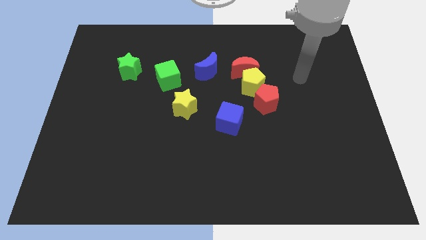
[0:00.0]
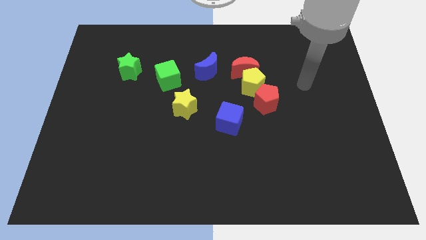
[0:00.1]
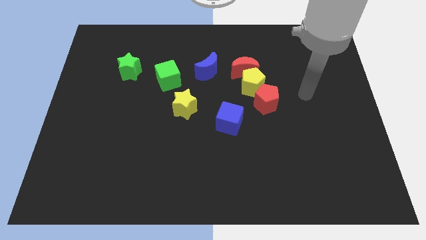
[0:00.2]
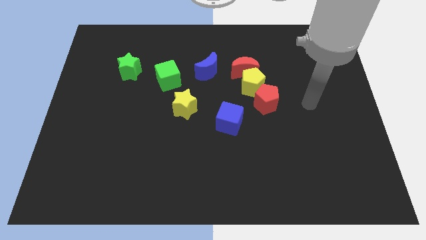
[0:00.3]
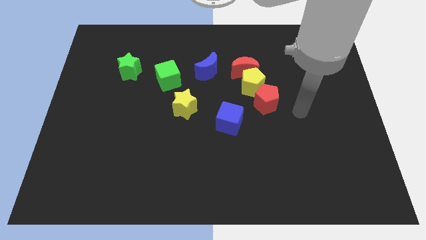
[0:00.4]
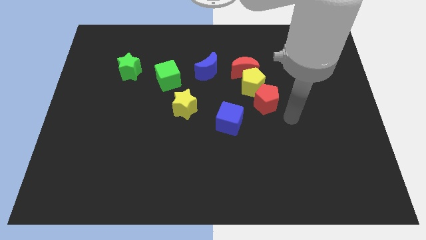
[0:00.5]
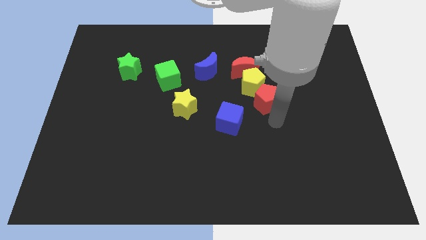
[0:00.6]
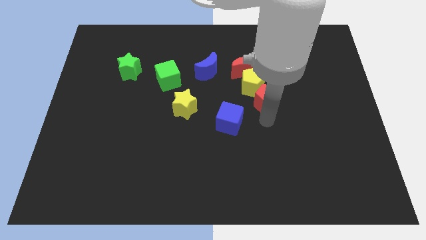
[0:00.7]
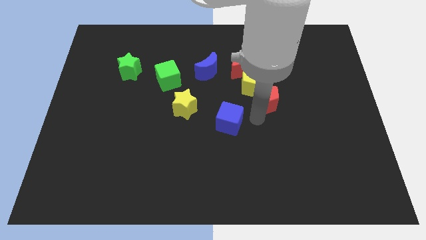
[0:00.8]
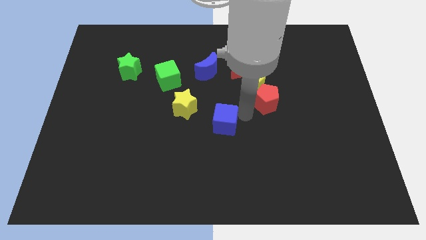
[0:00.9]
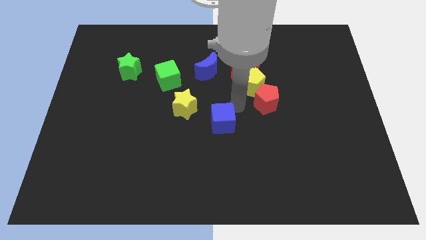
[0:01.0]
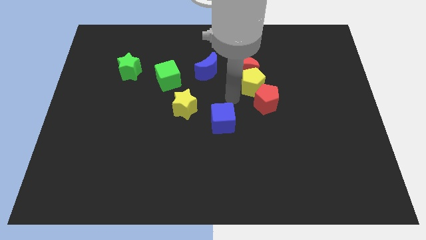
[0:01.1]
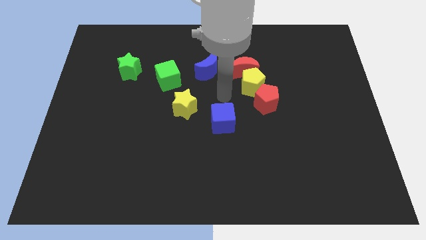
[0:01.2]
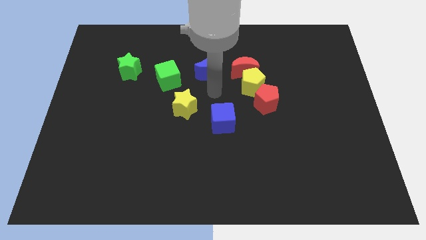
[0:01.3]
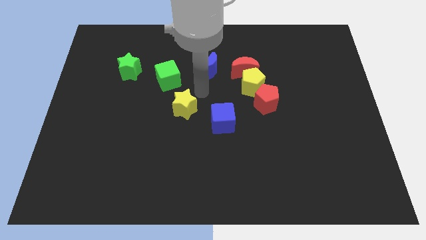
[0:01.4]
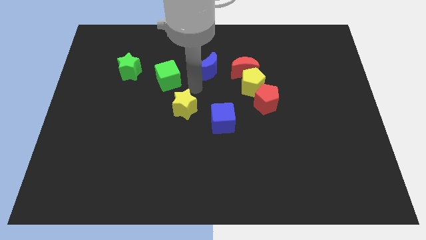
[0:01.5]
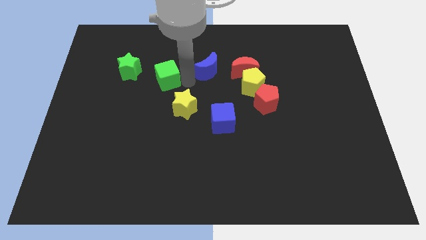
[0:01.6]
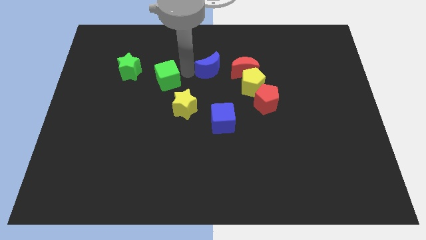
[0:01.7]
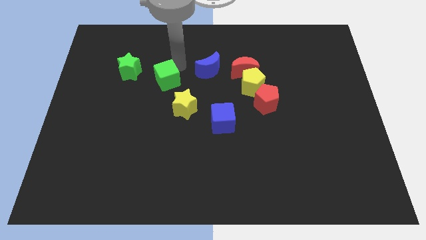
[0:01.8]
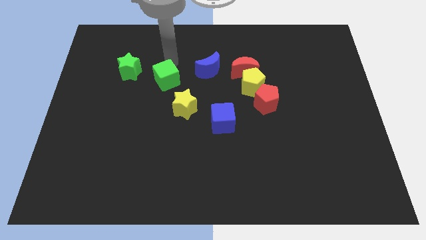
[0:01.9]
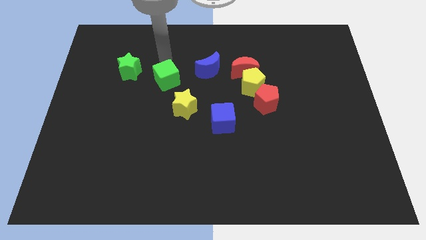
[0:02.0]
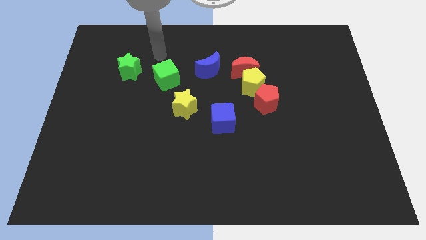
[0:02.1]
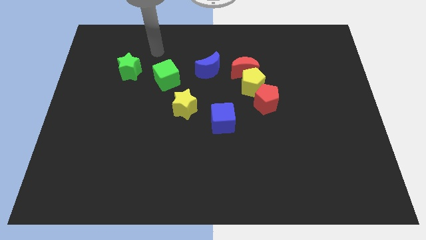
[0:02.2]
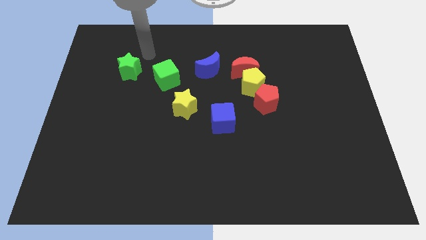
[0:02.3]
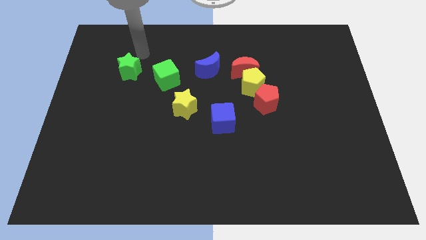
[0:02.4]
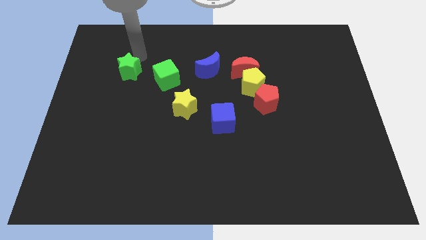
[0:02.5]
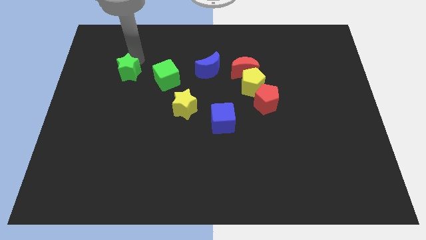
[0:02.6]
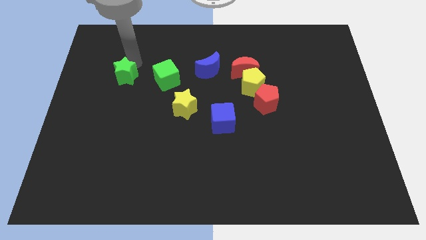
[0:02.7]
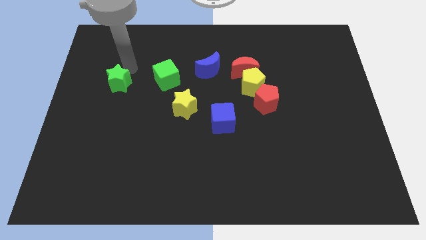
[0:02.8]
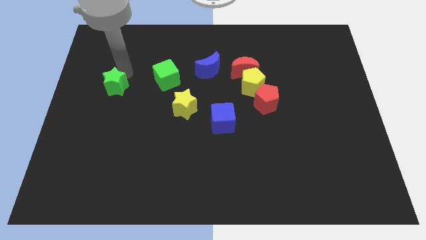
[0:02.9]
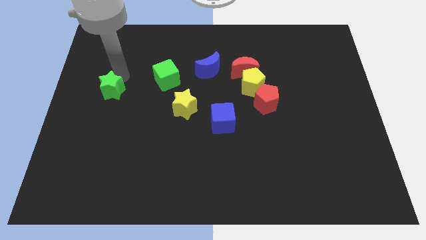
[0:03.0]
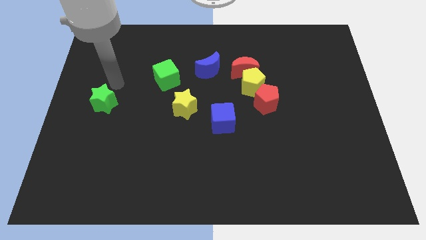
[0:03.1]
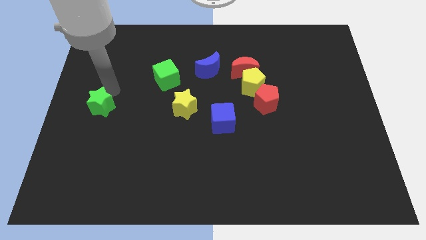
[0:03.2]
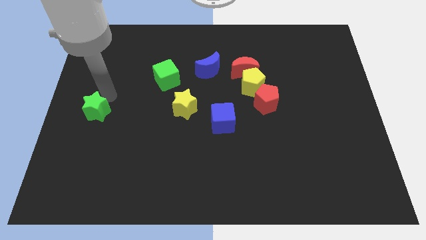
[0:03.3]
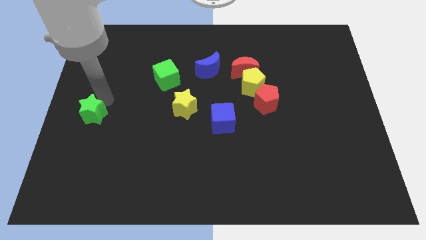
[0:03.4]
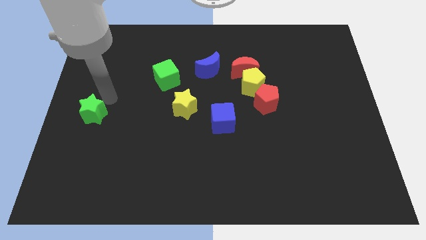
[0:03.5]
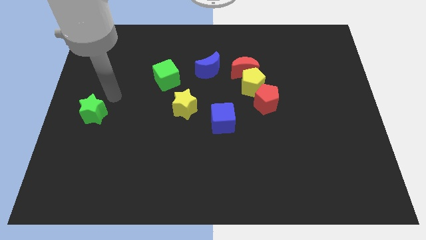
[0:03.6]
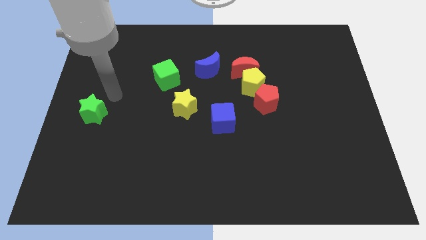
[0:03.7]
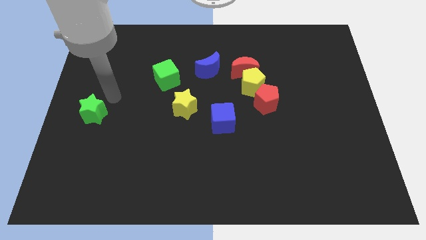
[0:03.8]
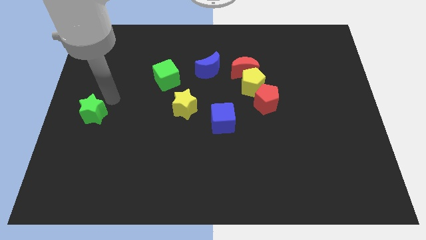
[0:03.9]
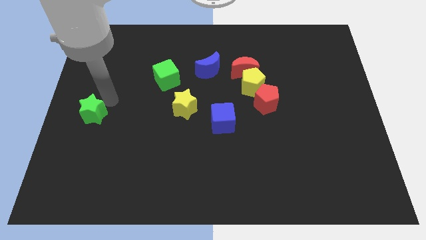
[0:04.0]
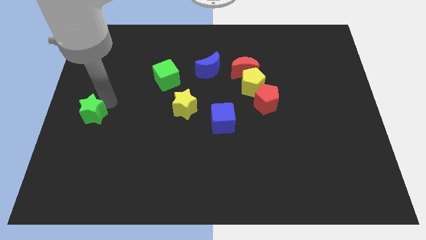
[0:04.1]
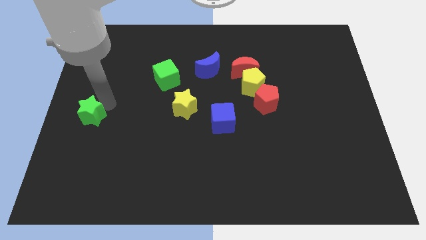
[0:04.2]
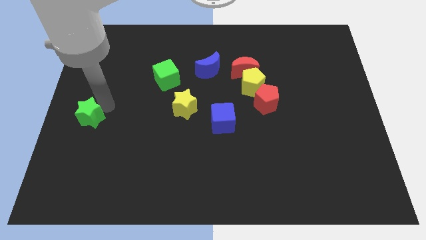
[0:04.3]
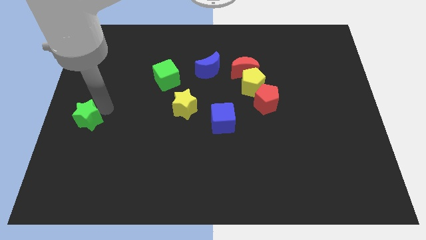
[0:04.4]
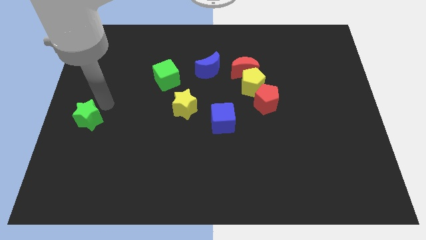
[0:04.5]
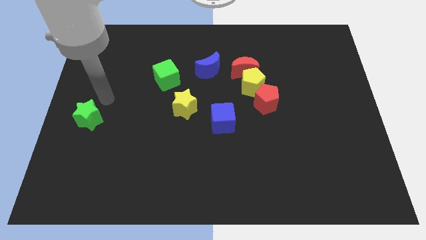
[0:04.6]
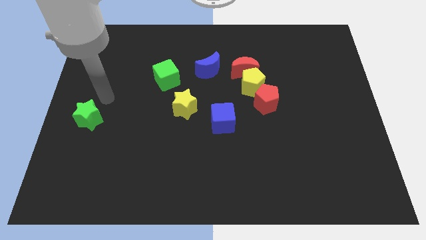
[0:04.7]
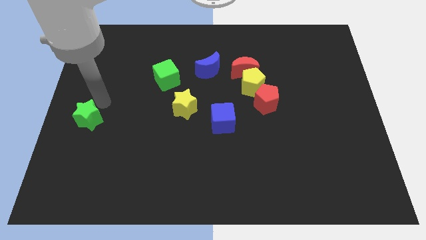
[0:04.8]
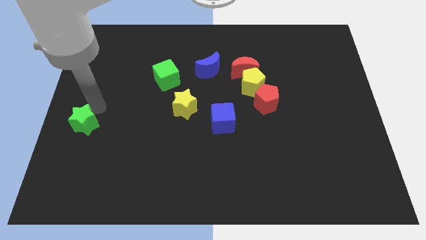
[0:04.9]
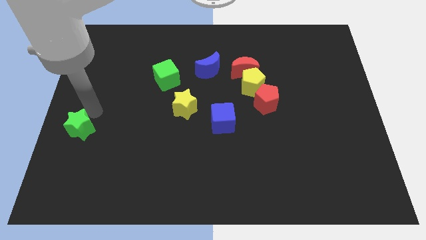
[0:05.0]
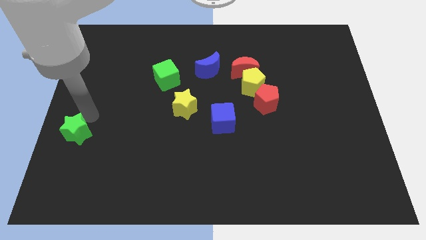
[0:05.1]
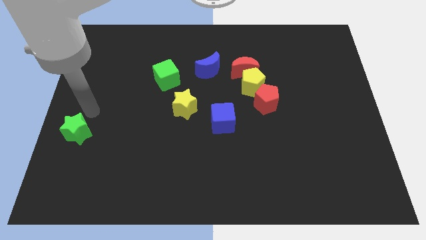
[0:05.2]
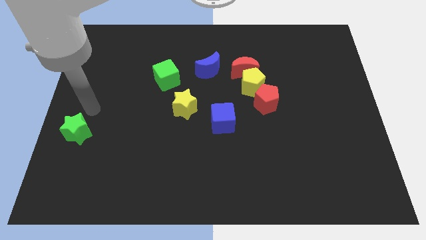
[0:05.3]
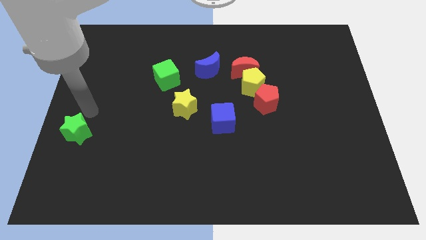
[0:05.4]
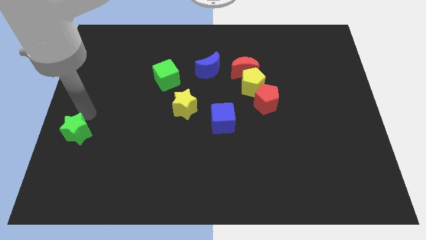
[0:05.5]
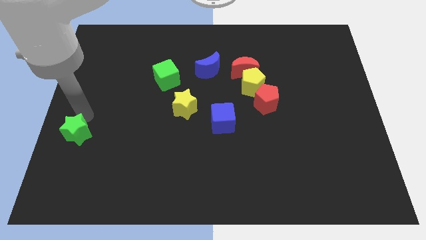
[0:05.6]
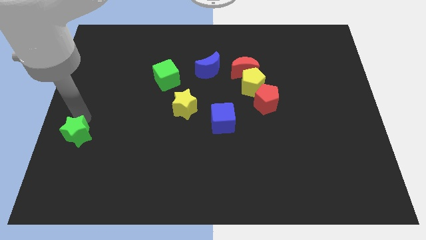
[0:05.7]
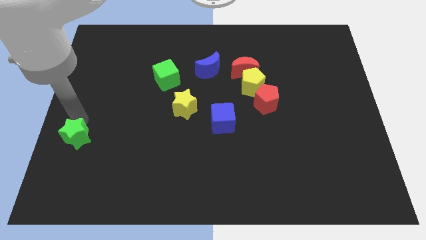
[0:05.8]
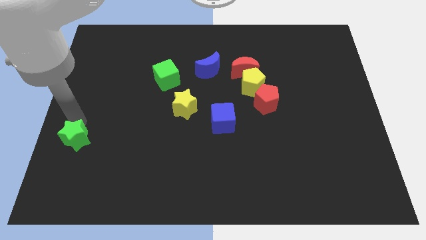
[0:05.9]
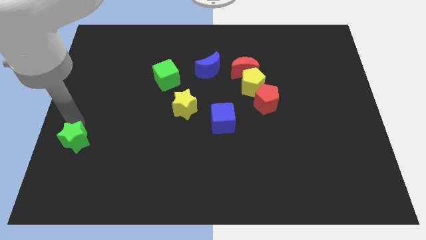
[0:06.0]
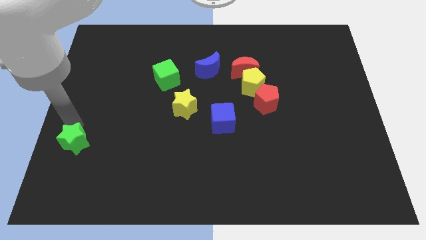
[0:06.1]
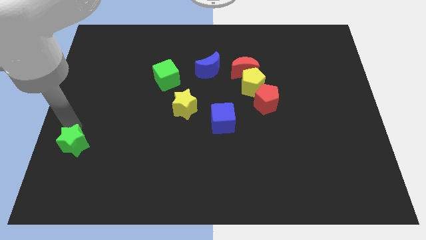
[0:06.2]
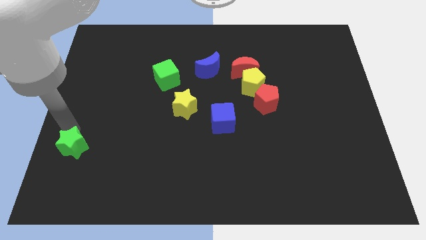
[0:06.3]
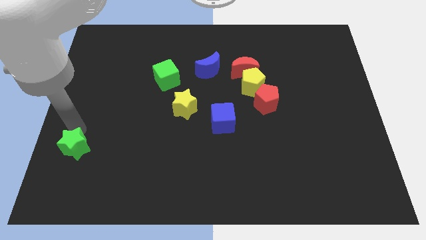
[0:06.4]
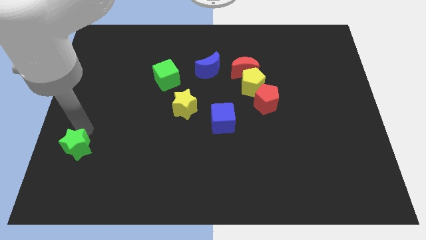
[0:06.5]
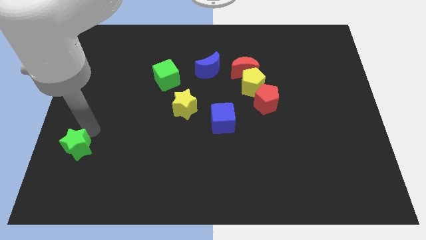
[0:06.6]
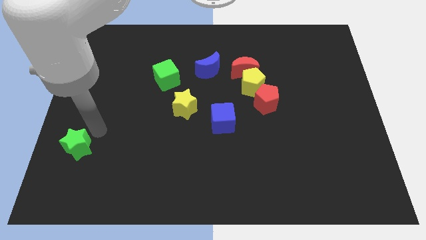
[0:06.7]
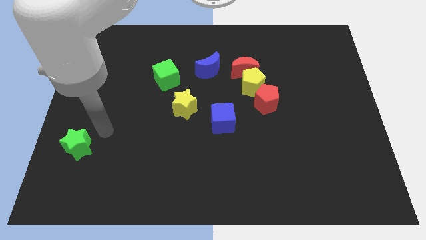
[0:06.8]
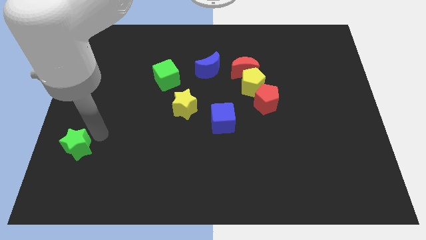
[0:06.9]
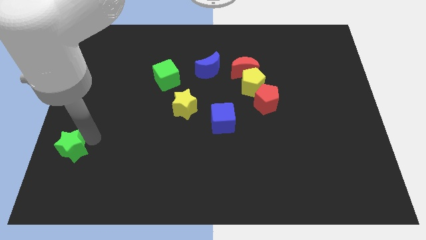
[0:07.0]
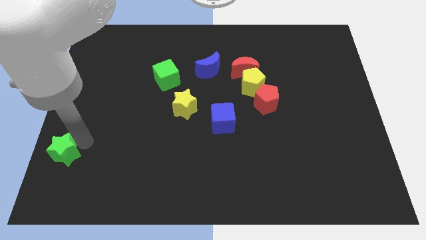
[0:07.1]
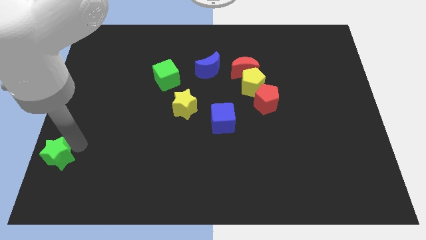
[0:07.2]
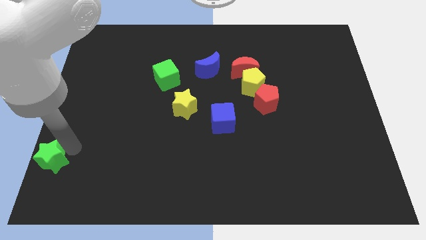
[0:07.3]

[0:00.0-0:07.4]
move the green star to the bottom left of the board
